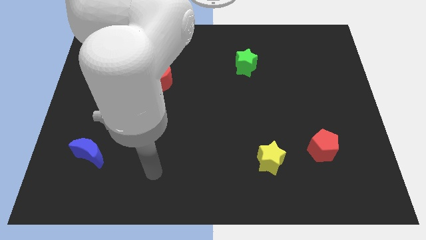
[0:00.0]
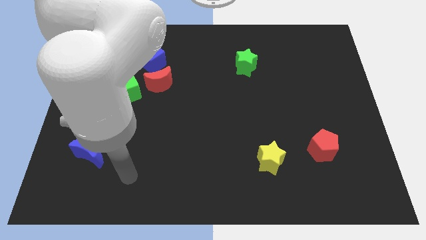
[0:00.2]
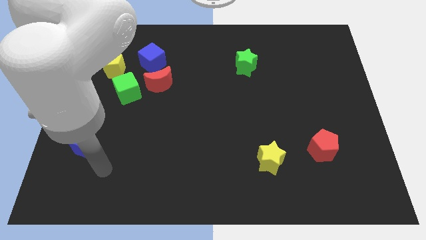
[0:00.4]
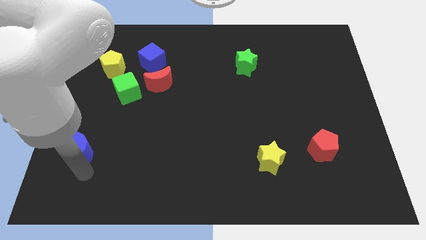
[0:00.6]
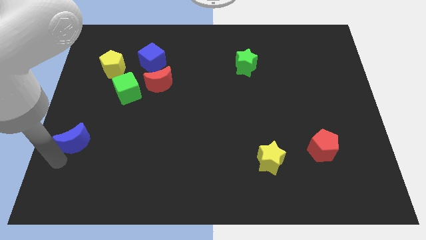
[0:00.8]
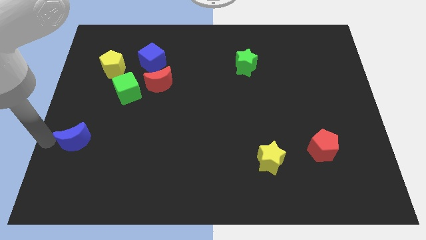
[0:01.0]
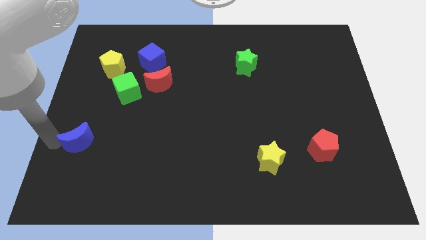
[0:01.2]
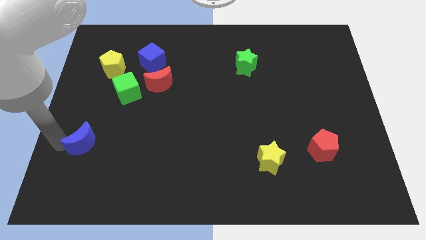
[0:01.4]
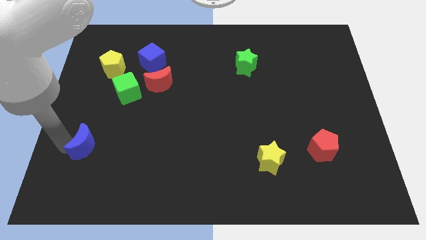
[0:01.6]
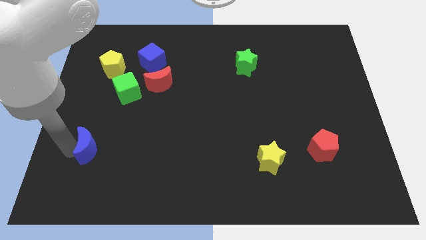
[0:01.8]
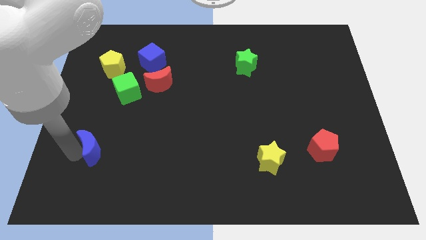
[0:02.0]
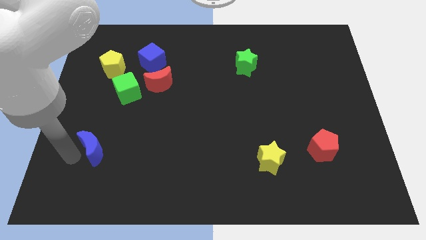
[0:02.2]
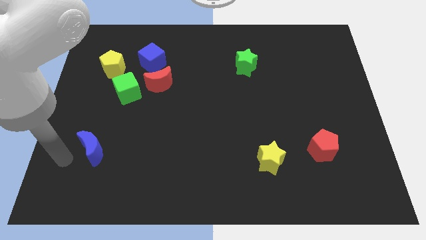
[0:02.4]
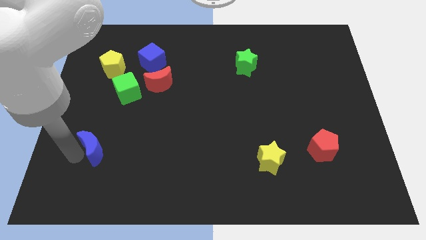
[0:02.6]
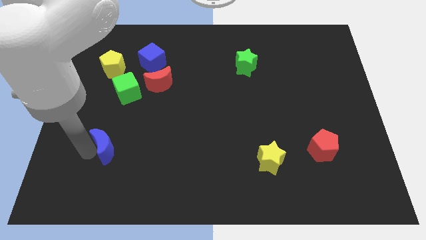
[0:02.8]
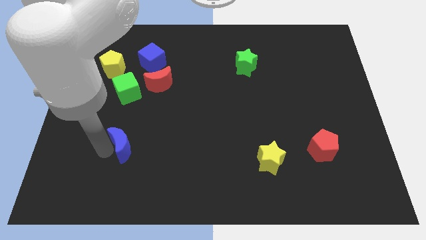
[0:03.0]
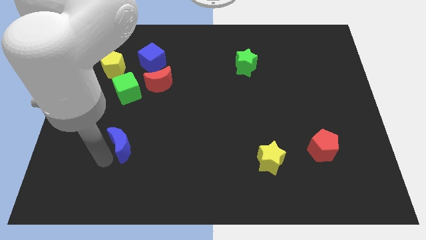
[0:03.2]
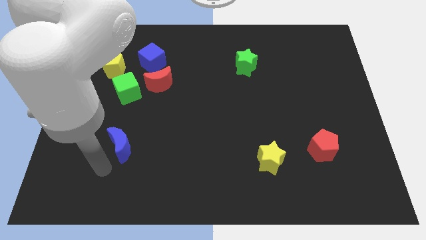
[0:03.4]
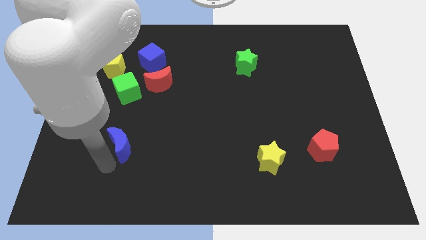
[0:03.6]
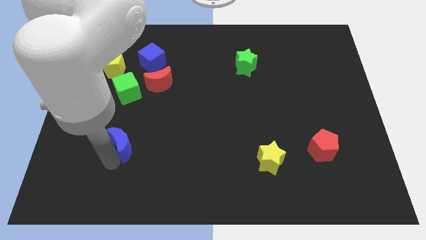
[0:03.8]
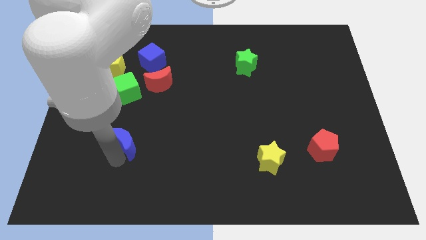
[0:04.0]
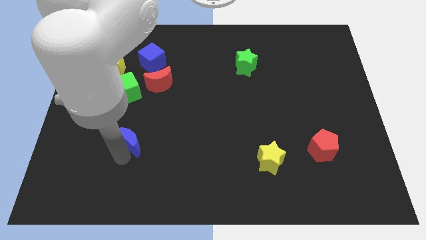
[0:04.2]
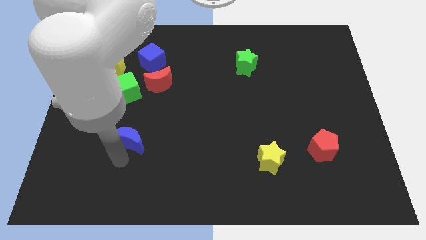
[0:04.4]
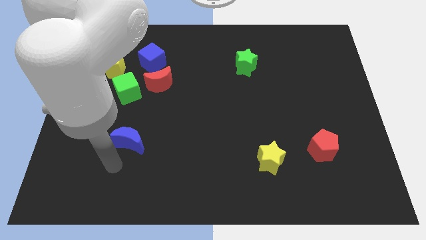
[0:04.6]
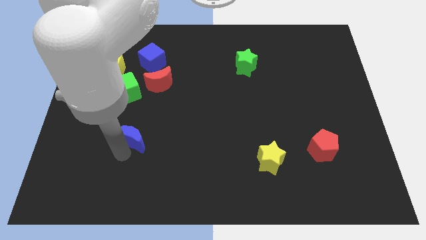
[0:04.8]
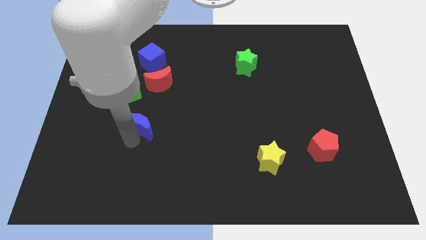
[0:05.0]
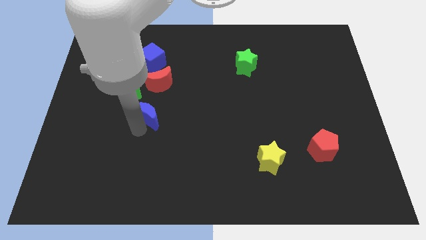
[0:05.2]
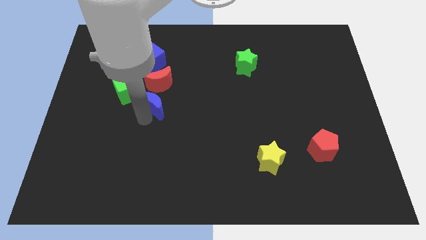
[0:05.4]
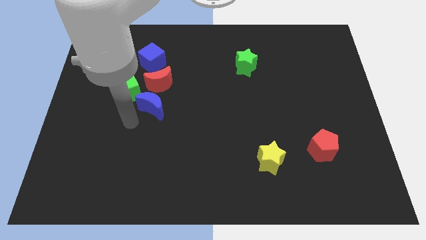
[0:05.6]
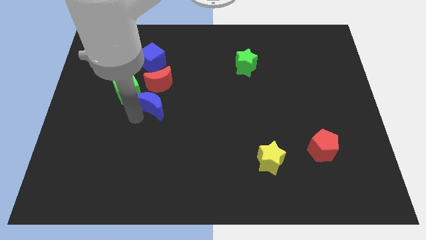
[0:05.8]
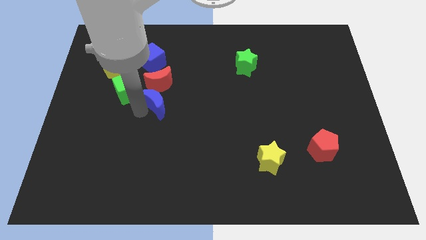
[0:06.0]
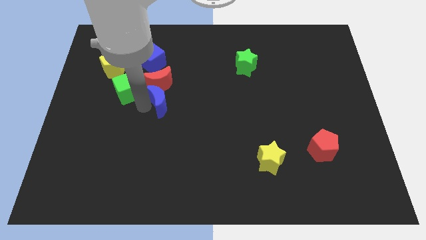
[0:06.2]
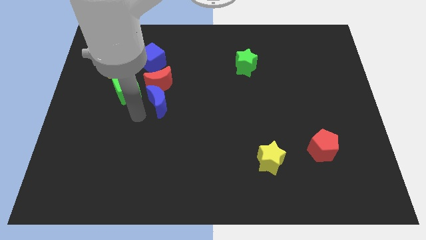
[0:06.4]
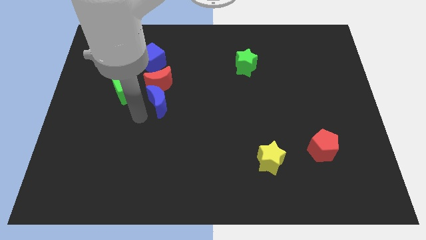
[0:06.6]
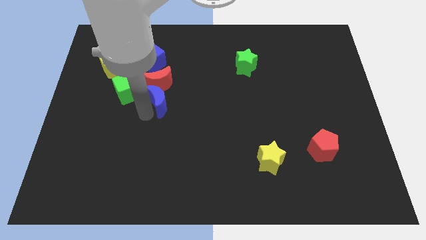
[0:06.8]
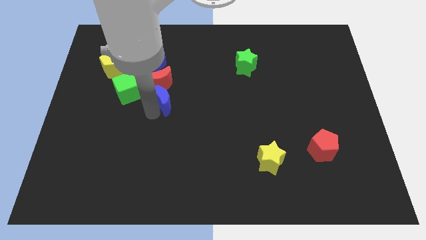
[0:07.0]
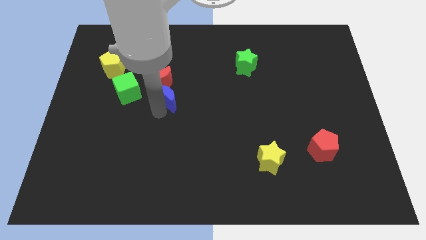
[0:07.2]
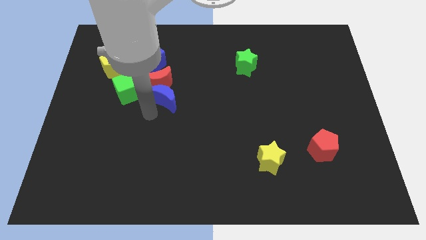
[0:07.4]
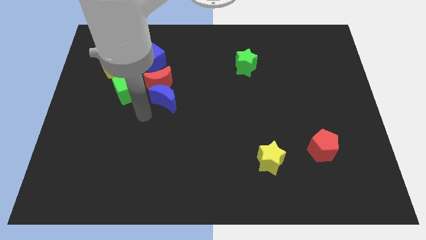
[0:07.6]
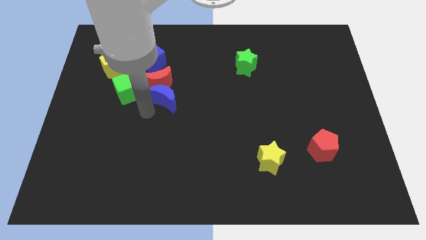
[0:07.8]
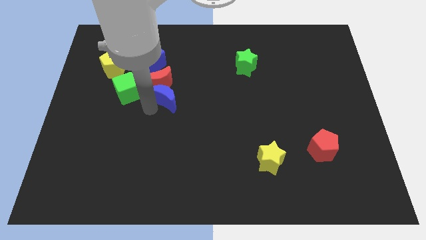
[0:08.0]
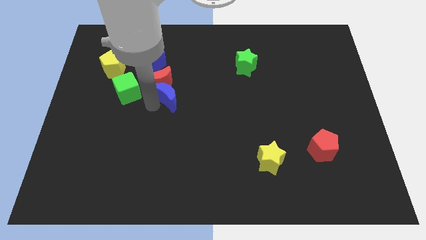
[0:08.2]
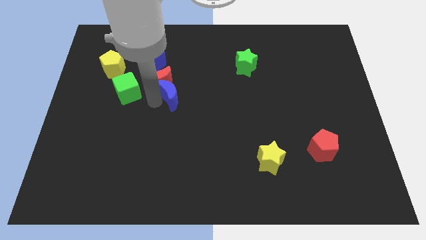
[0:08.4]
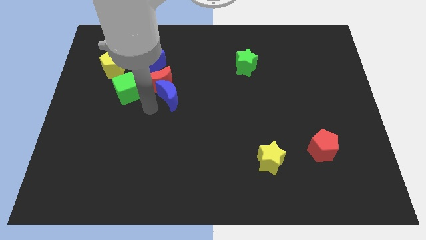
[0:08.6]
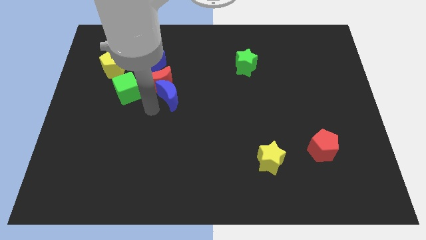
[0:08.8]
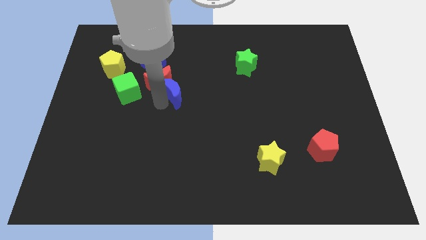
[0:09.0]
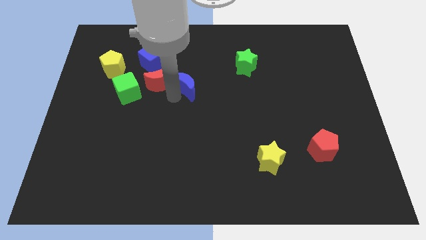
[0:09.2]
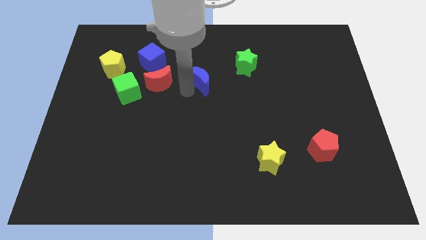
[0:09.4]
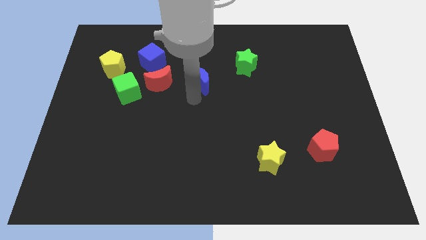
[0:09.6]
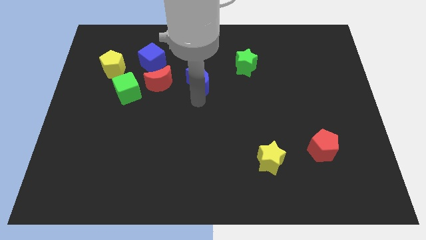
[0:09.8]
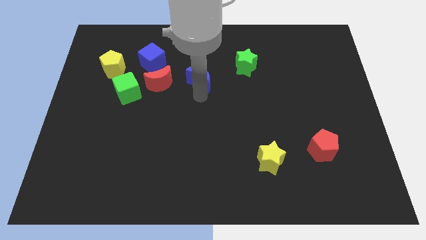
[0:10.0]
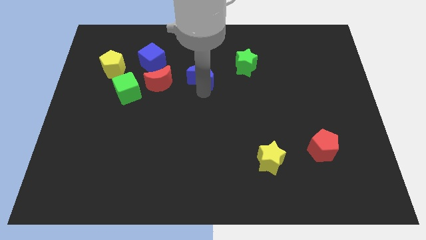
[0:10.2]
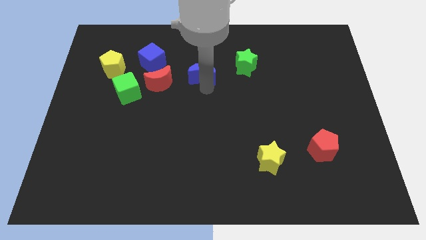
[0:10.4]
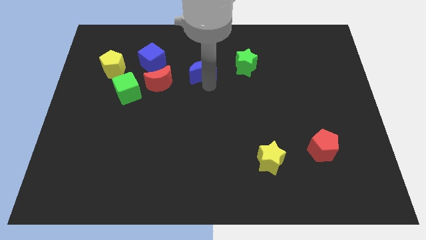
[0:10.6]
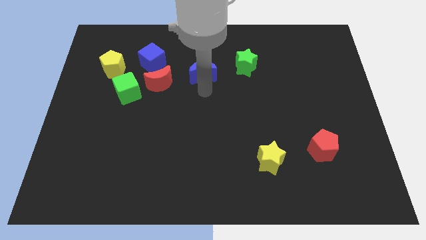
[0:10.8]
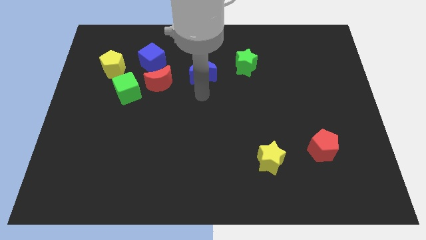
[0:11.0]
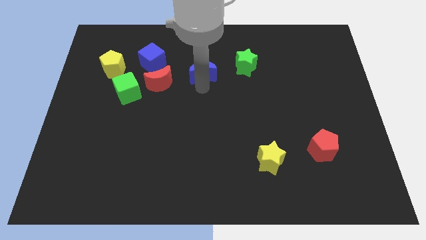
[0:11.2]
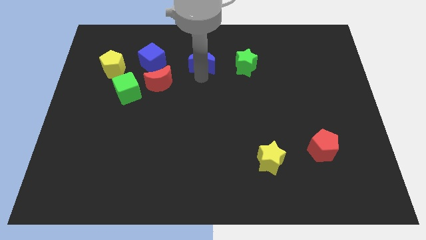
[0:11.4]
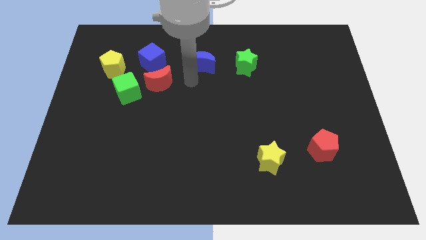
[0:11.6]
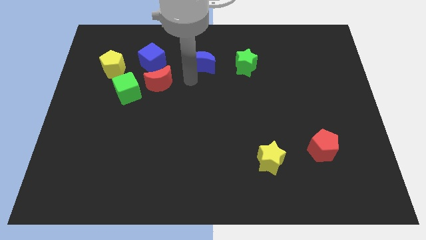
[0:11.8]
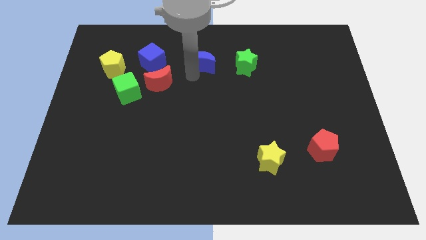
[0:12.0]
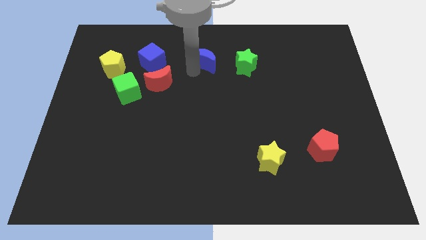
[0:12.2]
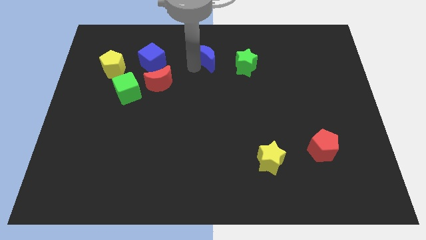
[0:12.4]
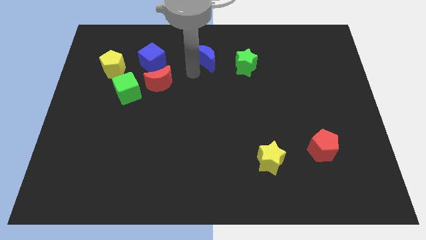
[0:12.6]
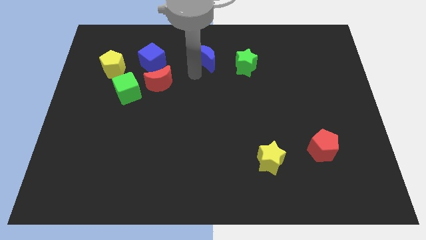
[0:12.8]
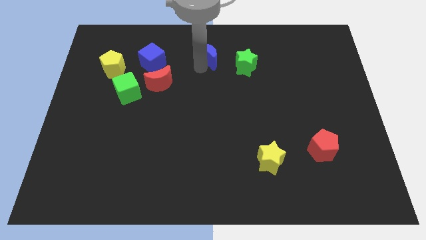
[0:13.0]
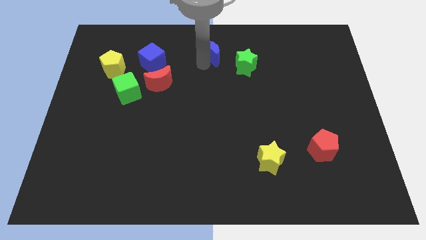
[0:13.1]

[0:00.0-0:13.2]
put the blue moon to the top side

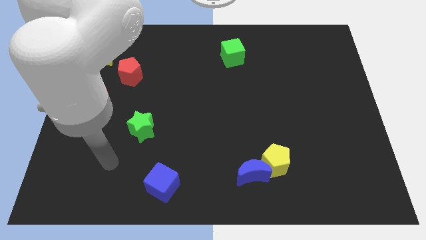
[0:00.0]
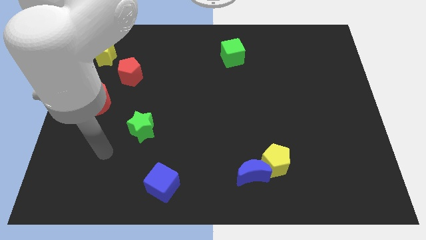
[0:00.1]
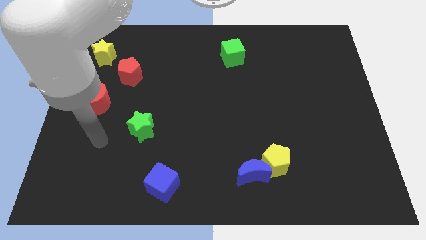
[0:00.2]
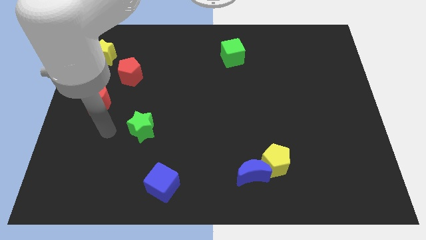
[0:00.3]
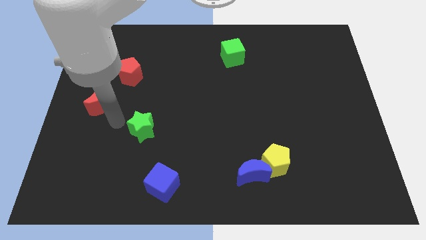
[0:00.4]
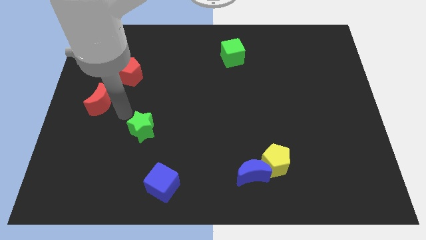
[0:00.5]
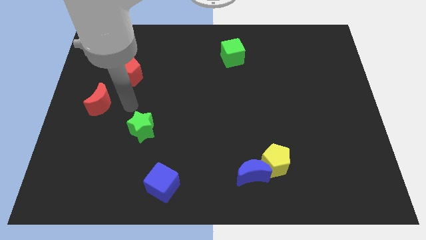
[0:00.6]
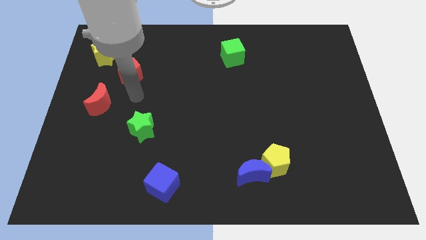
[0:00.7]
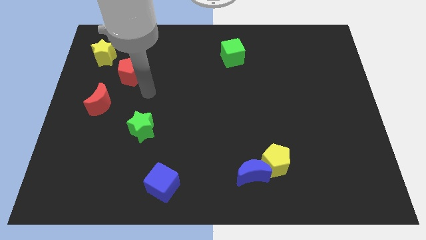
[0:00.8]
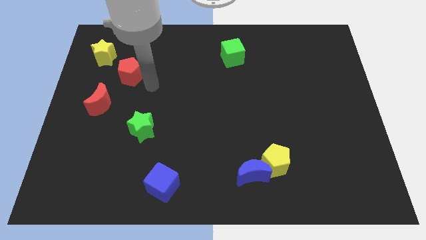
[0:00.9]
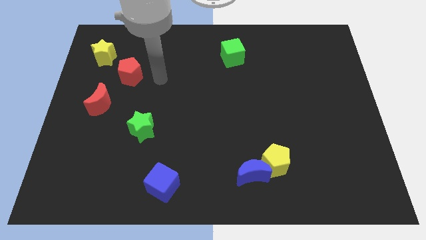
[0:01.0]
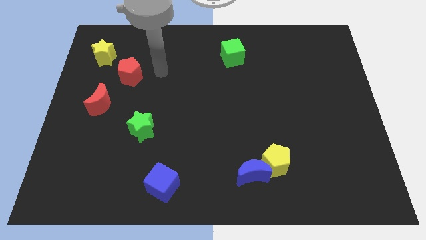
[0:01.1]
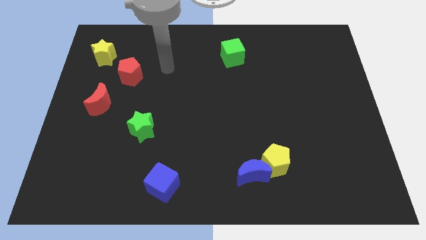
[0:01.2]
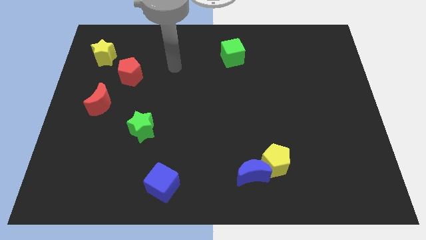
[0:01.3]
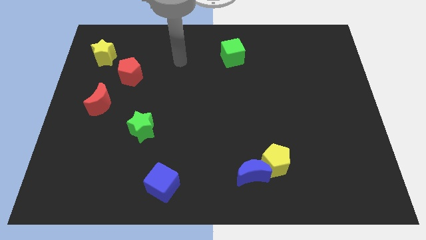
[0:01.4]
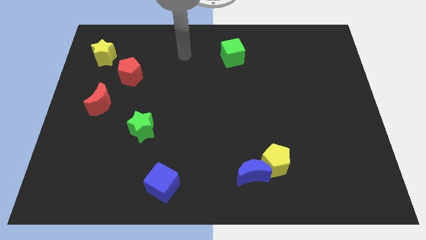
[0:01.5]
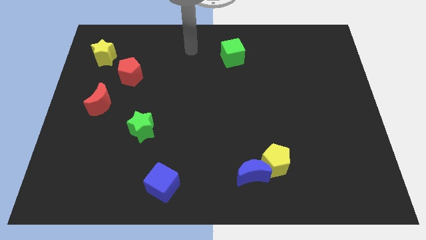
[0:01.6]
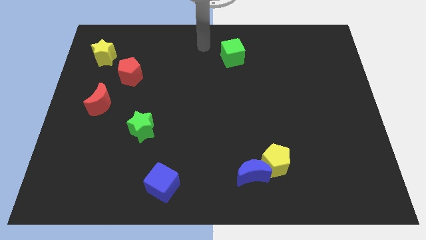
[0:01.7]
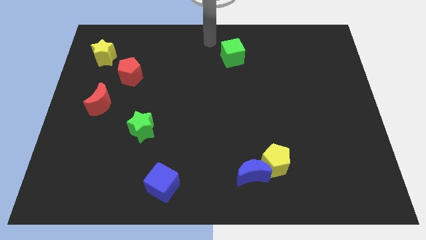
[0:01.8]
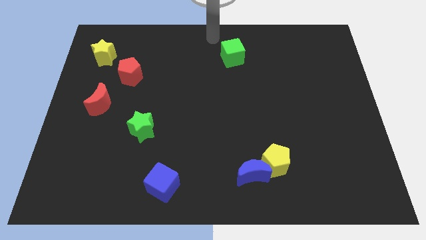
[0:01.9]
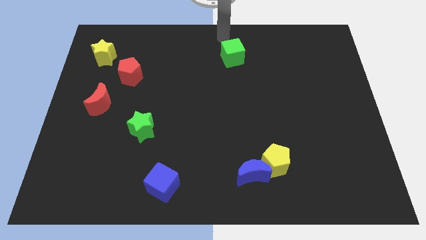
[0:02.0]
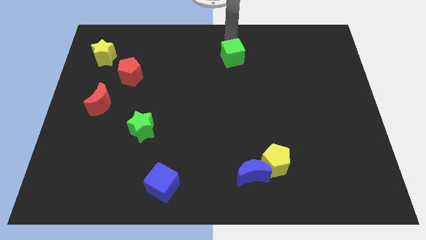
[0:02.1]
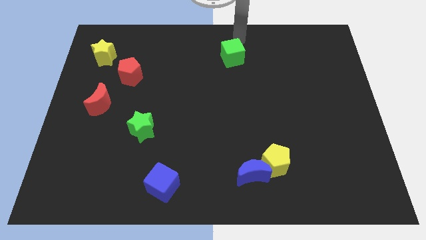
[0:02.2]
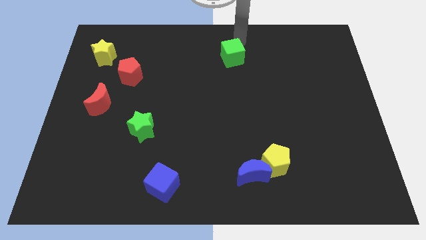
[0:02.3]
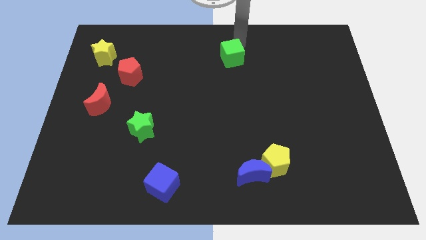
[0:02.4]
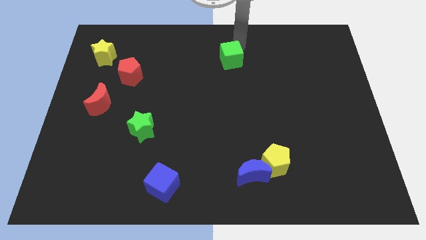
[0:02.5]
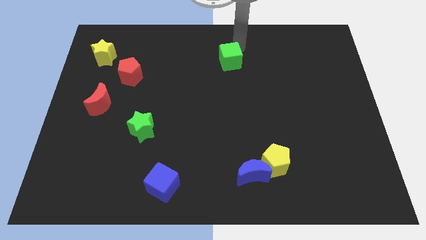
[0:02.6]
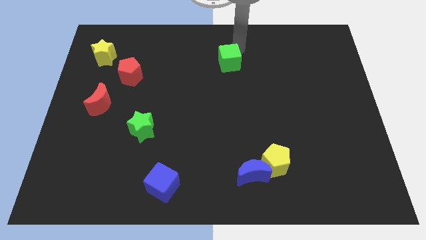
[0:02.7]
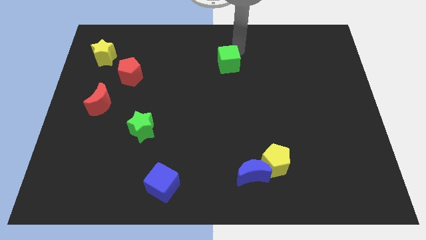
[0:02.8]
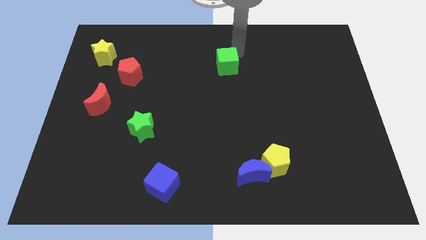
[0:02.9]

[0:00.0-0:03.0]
slide the green cube to the middle of the board
